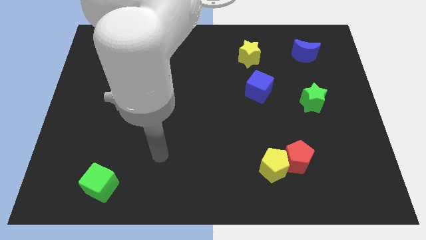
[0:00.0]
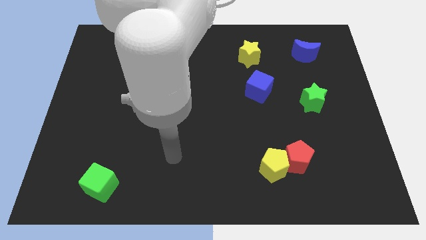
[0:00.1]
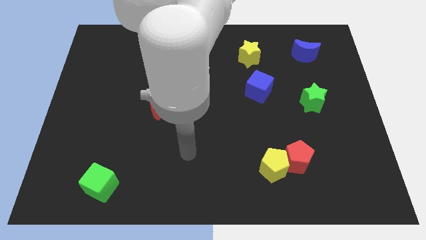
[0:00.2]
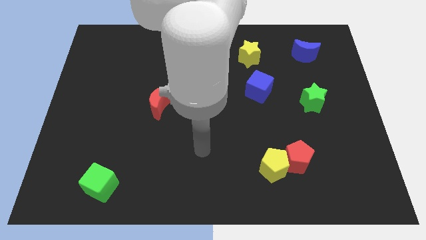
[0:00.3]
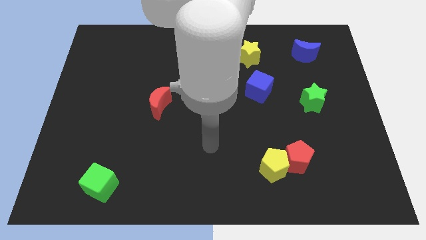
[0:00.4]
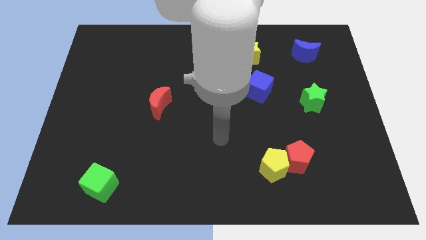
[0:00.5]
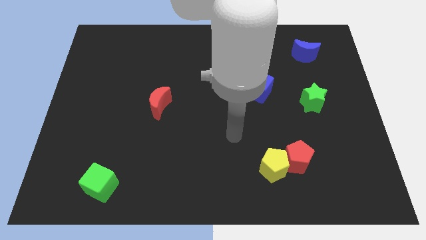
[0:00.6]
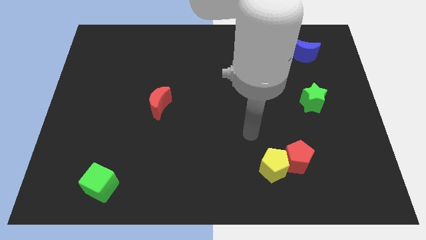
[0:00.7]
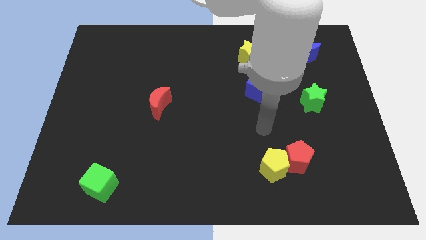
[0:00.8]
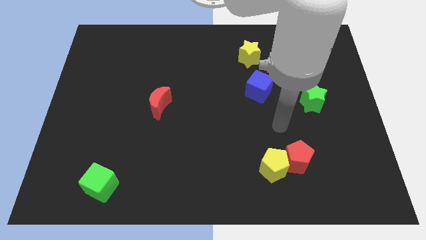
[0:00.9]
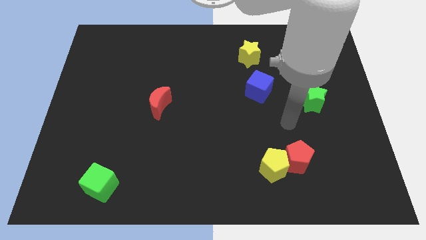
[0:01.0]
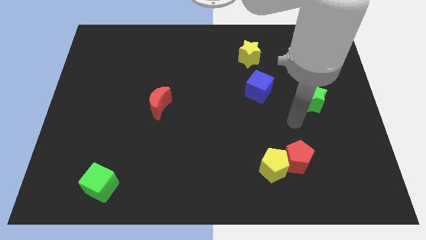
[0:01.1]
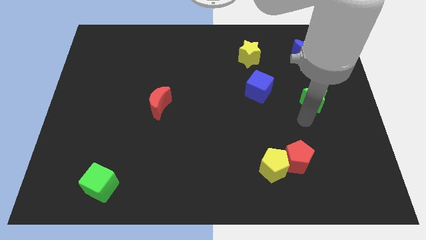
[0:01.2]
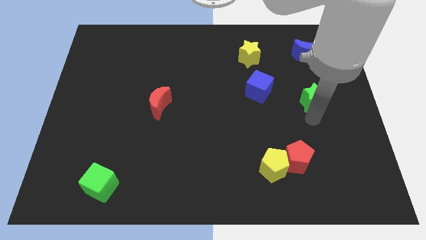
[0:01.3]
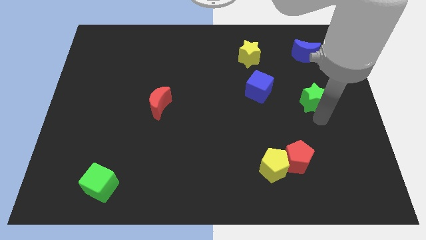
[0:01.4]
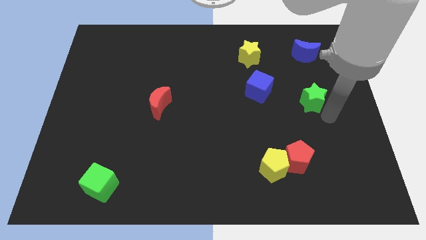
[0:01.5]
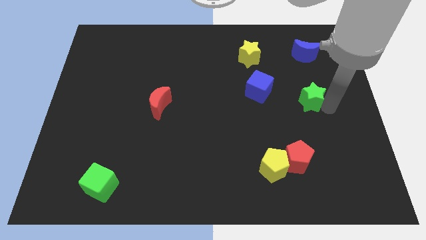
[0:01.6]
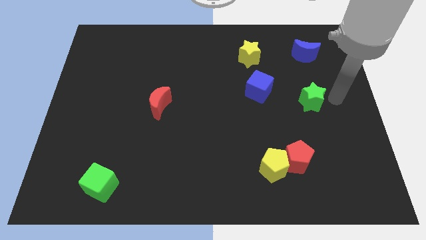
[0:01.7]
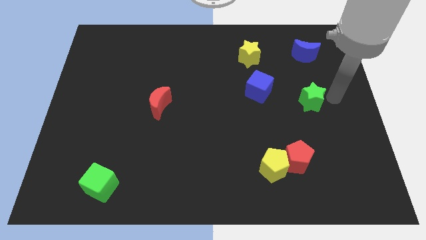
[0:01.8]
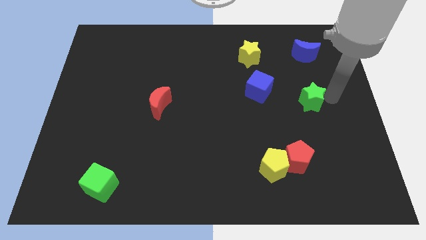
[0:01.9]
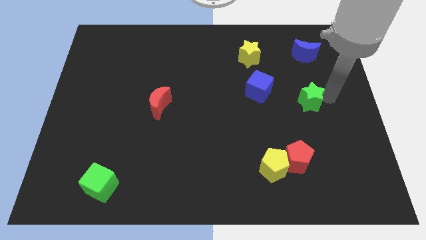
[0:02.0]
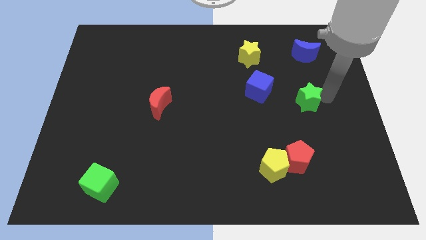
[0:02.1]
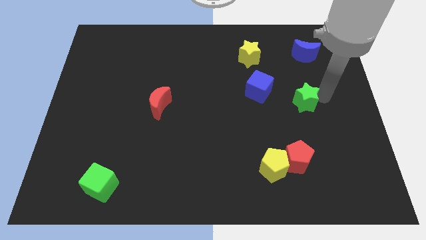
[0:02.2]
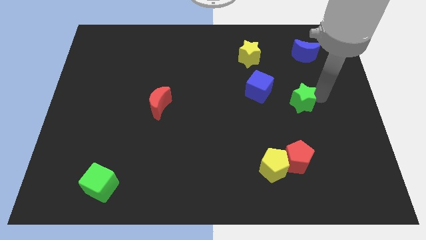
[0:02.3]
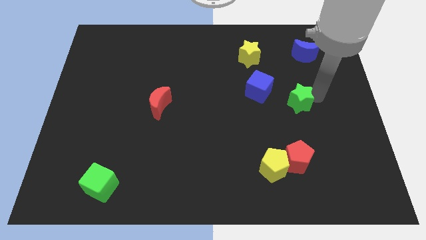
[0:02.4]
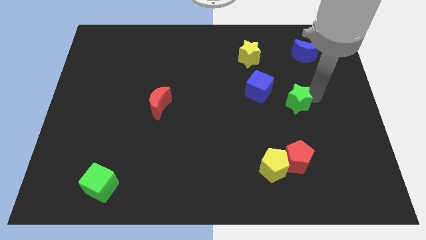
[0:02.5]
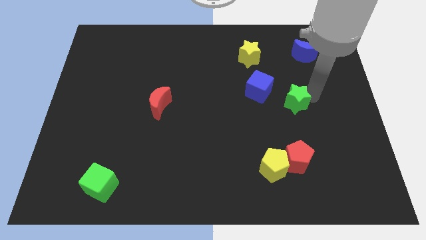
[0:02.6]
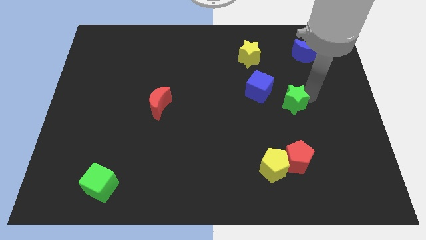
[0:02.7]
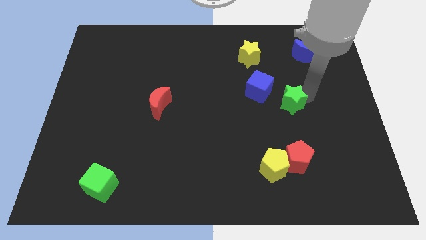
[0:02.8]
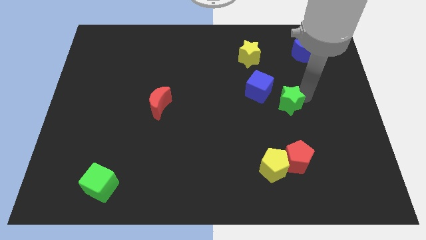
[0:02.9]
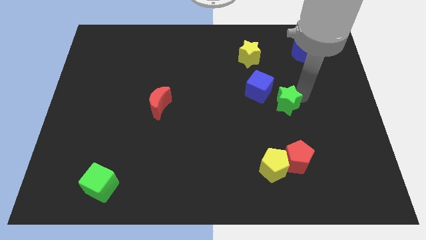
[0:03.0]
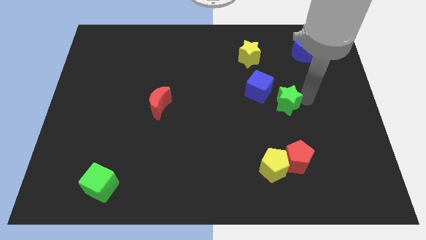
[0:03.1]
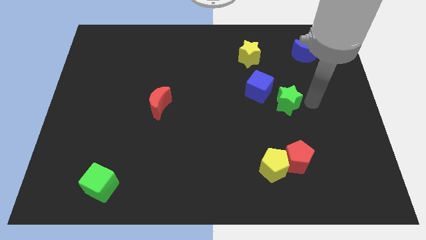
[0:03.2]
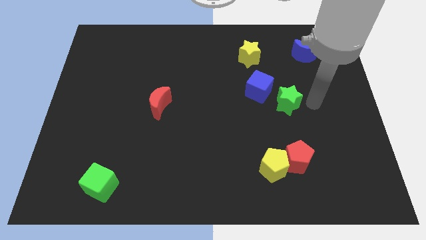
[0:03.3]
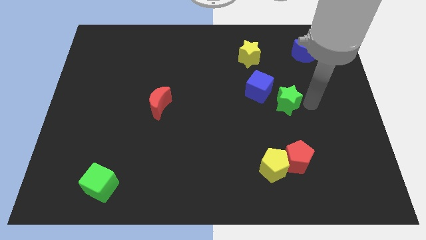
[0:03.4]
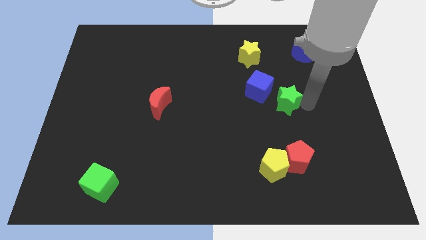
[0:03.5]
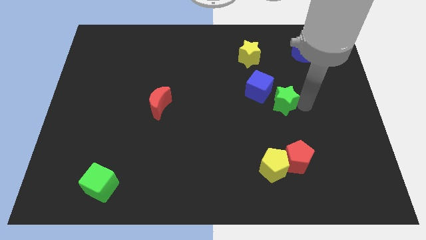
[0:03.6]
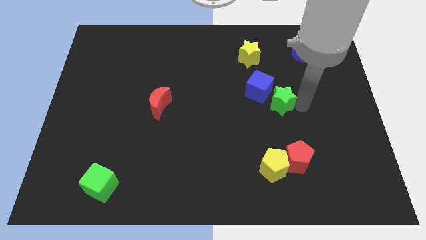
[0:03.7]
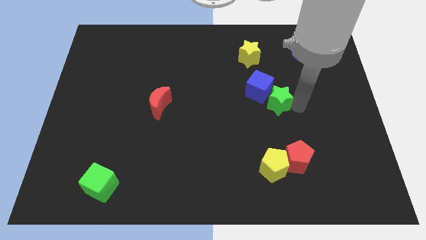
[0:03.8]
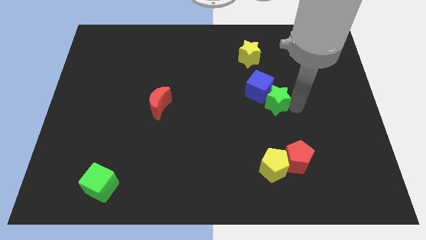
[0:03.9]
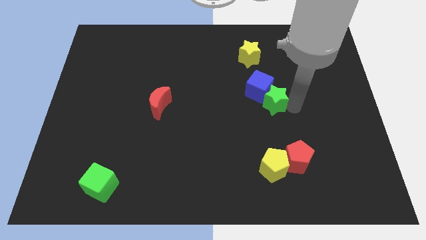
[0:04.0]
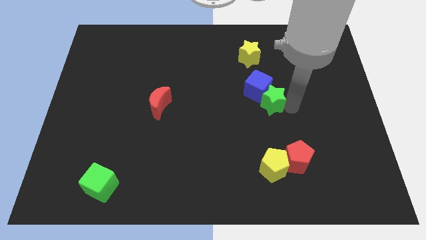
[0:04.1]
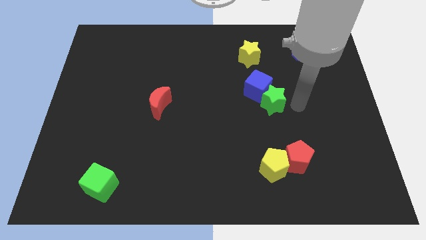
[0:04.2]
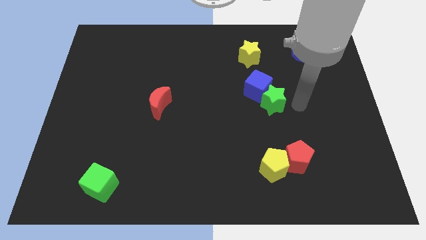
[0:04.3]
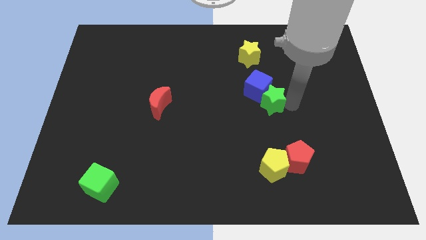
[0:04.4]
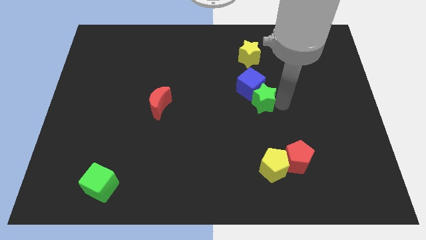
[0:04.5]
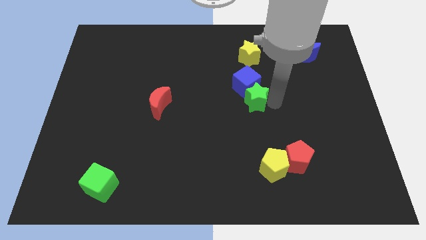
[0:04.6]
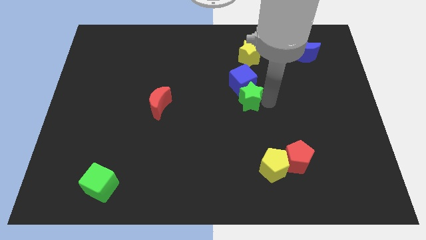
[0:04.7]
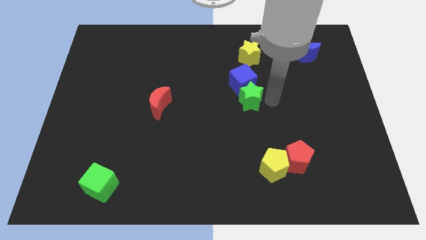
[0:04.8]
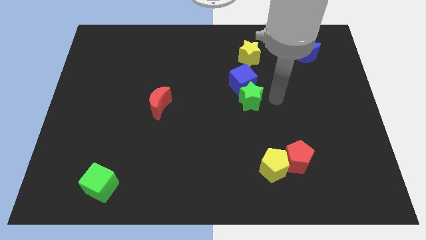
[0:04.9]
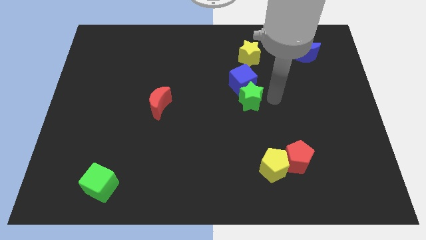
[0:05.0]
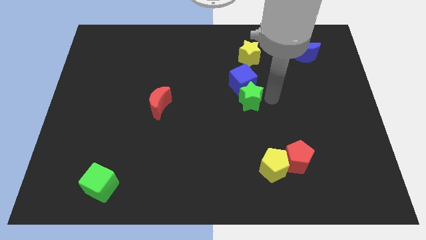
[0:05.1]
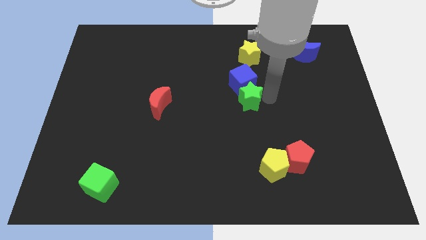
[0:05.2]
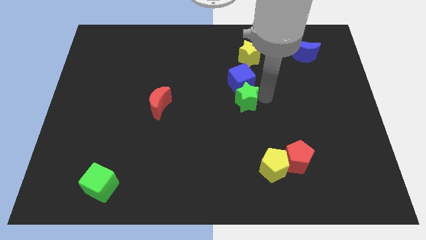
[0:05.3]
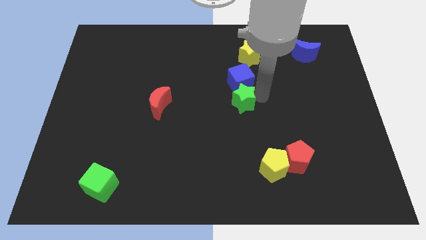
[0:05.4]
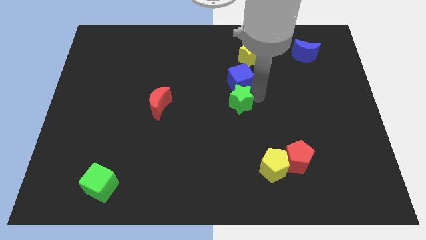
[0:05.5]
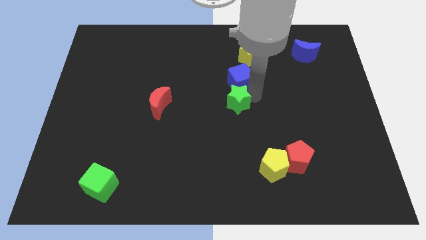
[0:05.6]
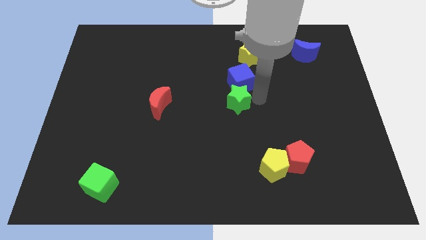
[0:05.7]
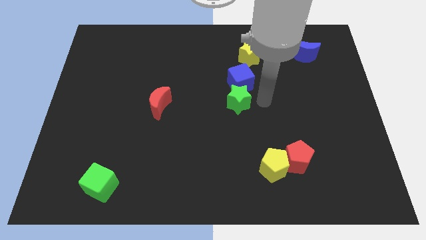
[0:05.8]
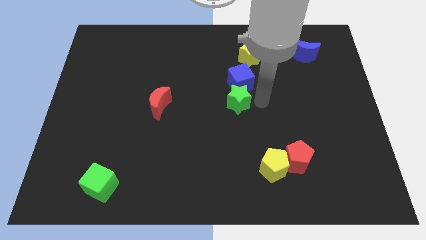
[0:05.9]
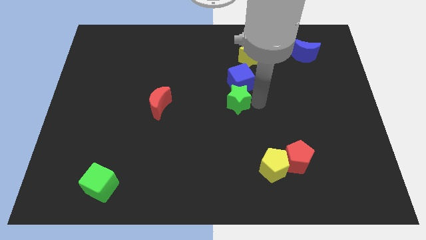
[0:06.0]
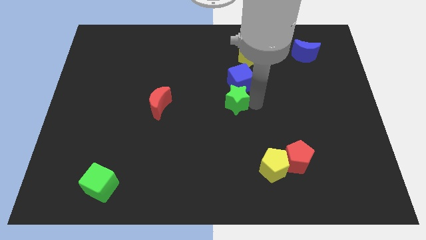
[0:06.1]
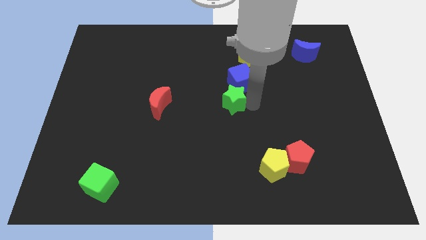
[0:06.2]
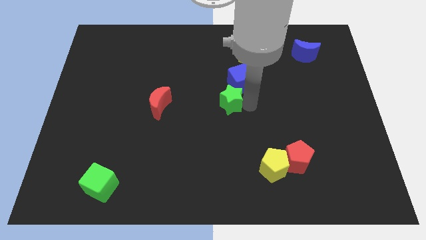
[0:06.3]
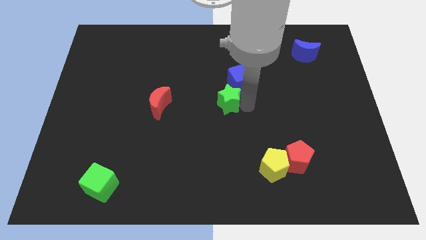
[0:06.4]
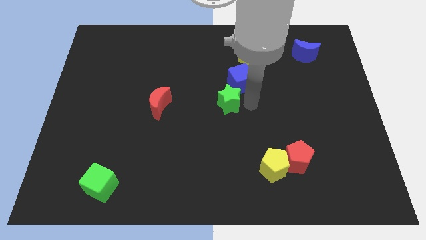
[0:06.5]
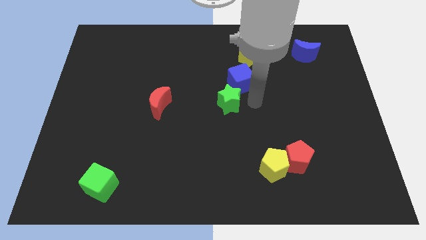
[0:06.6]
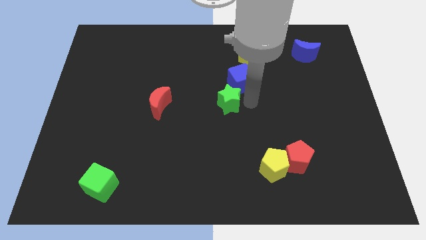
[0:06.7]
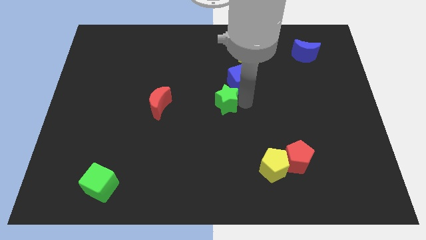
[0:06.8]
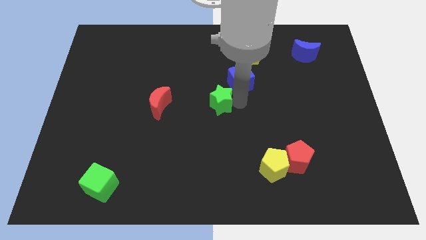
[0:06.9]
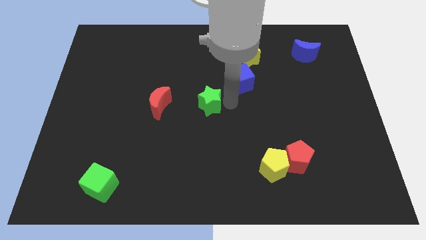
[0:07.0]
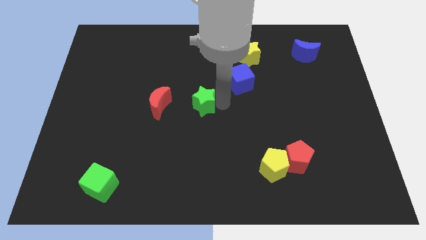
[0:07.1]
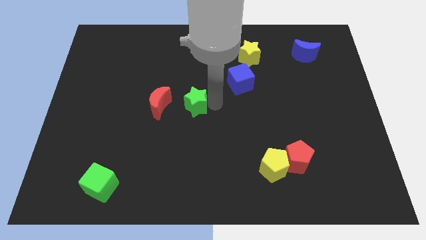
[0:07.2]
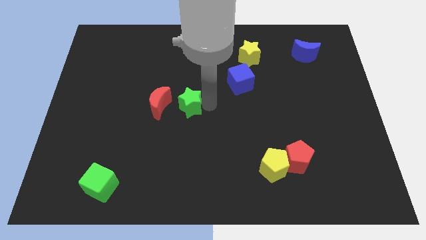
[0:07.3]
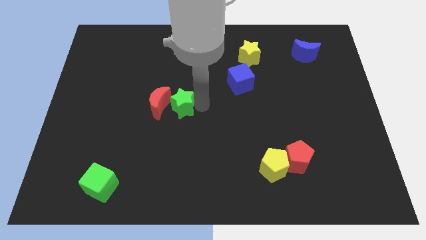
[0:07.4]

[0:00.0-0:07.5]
move the green star next to the red moon
